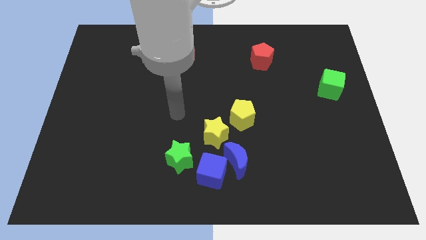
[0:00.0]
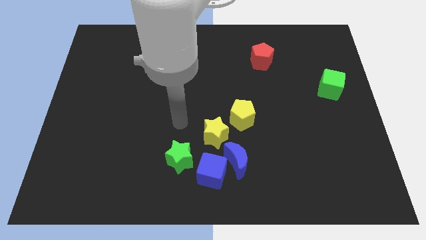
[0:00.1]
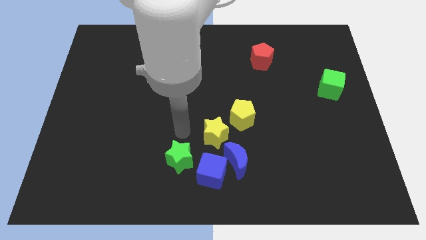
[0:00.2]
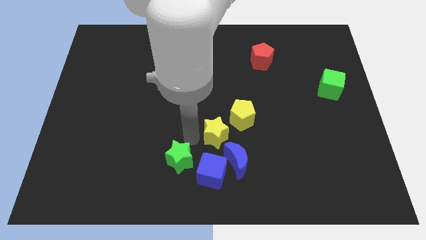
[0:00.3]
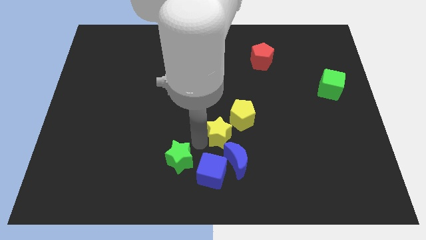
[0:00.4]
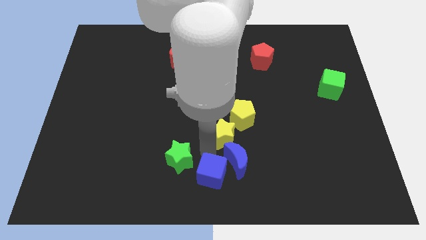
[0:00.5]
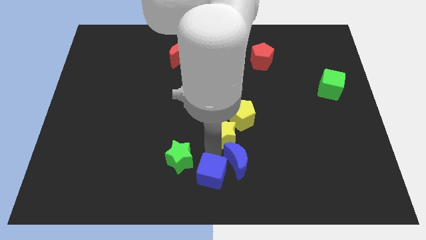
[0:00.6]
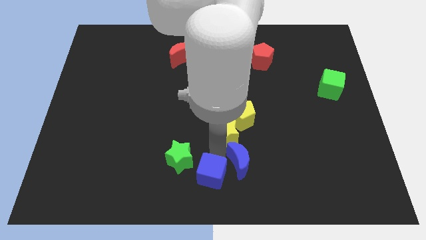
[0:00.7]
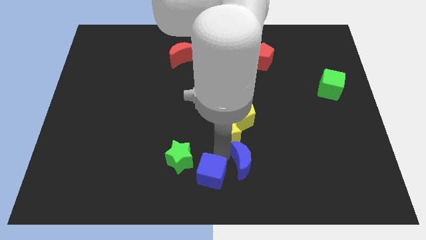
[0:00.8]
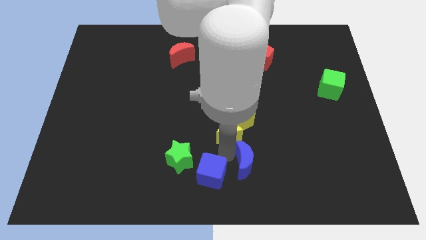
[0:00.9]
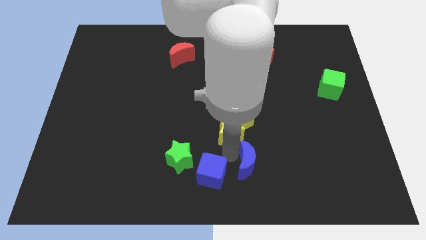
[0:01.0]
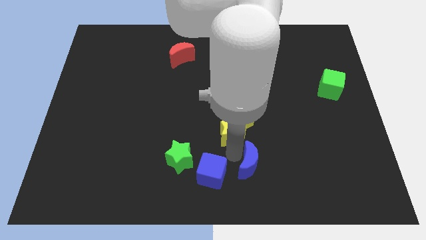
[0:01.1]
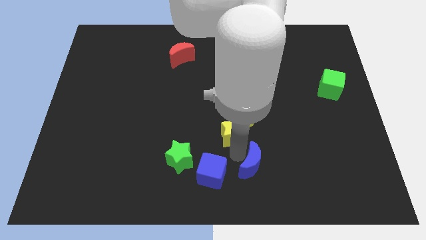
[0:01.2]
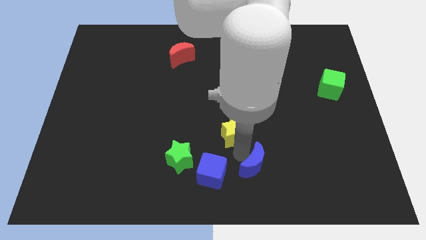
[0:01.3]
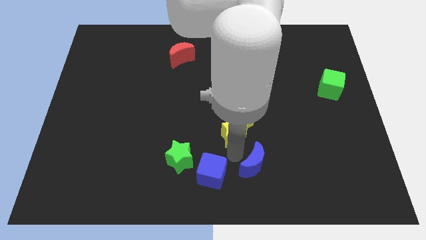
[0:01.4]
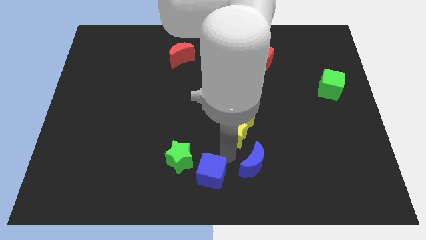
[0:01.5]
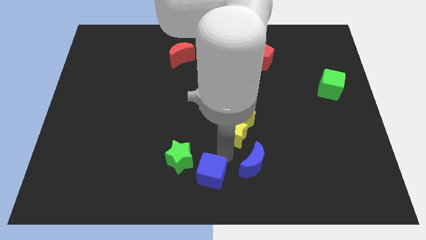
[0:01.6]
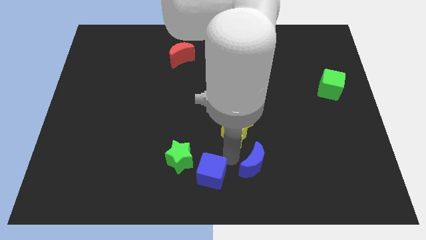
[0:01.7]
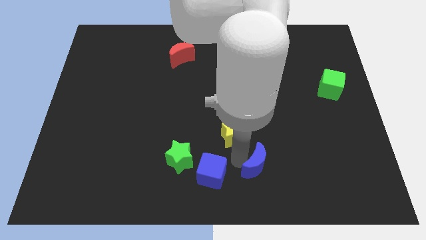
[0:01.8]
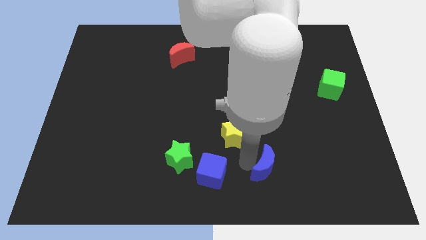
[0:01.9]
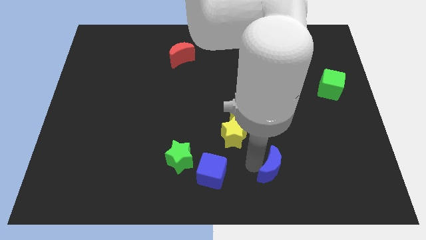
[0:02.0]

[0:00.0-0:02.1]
move the blue moon away from the blue cube and yellow star

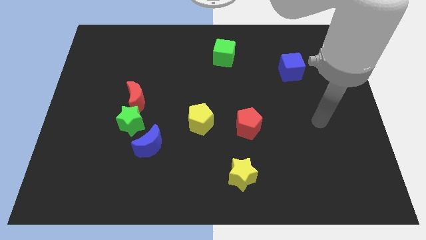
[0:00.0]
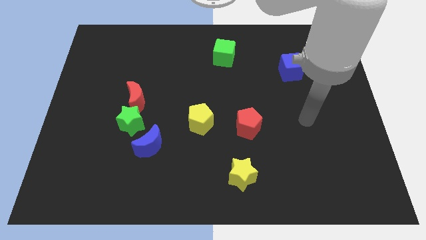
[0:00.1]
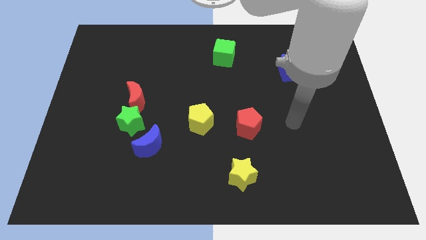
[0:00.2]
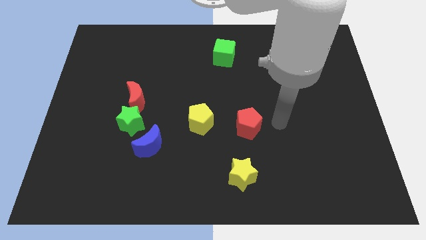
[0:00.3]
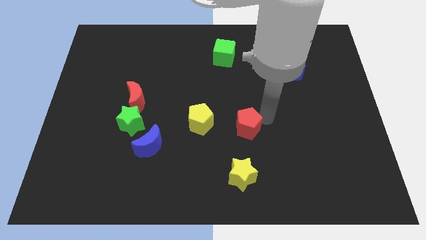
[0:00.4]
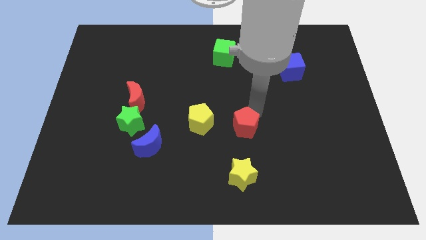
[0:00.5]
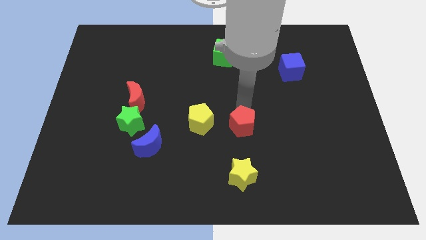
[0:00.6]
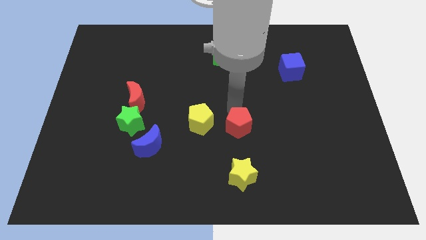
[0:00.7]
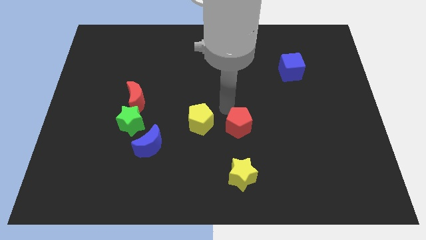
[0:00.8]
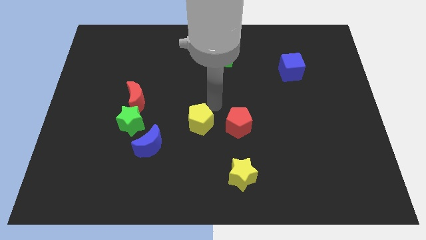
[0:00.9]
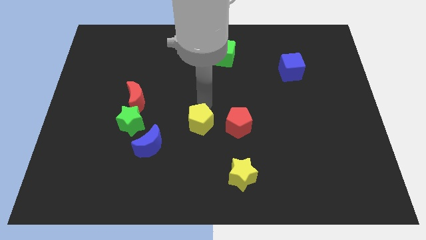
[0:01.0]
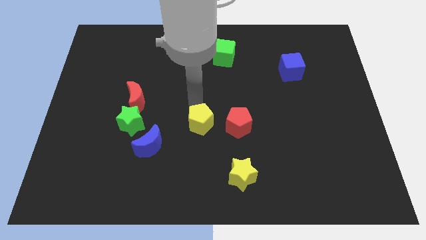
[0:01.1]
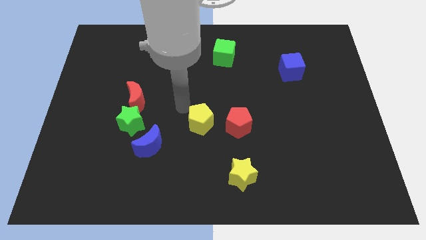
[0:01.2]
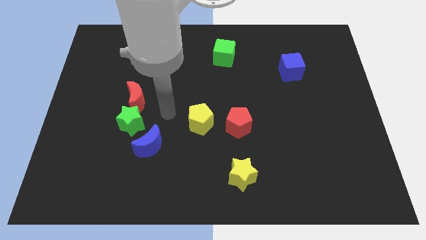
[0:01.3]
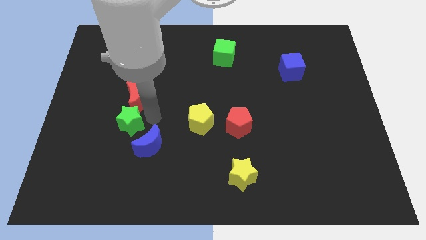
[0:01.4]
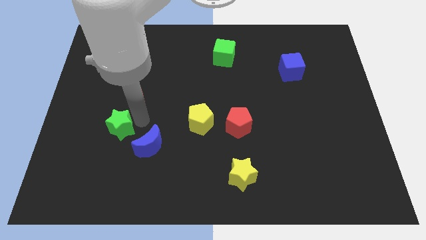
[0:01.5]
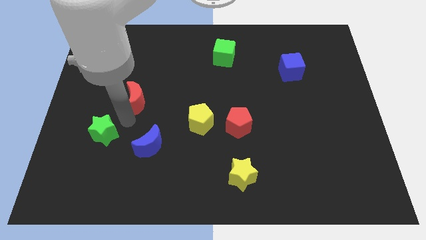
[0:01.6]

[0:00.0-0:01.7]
separate the red moon from the green star

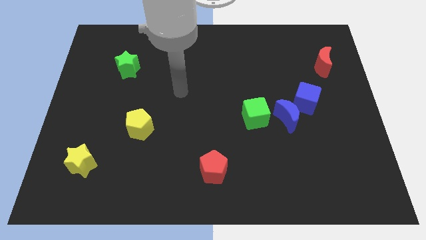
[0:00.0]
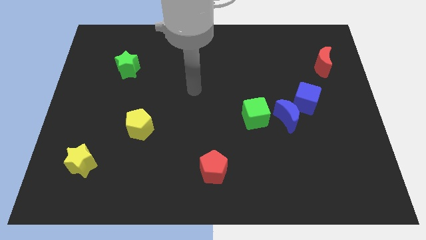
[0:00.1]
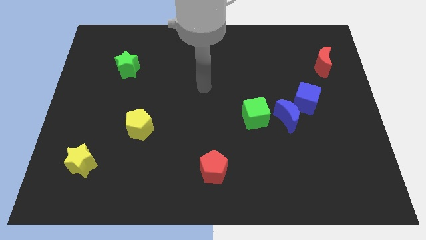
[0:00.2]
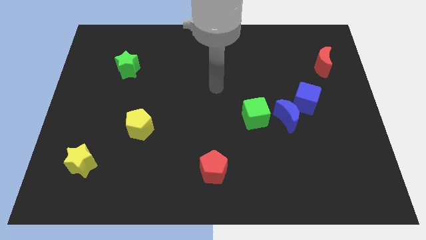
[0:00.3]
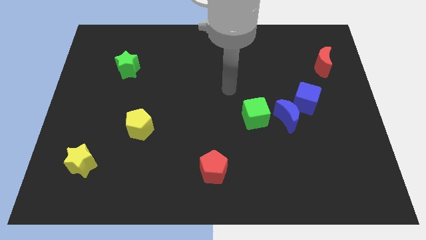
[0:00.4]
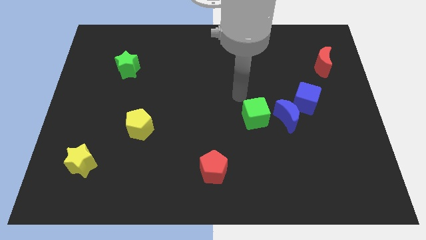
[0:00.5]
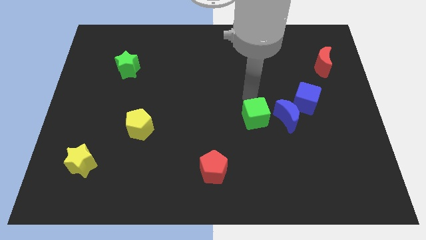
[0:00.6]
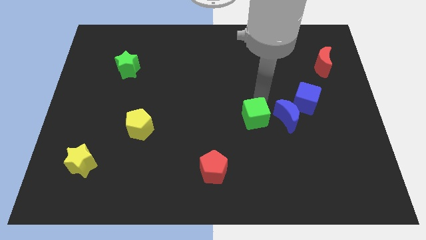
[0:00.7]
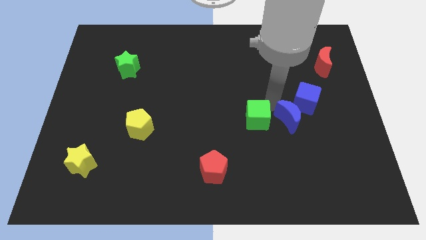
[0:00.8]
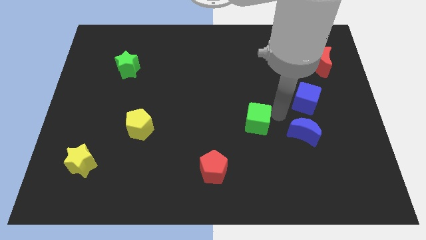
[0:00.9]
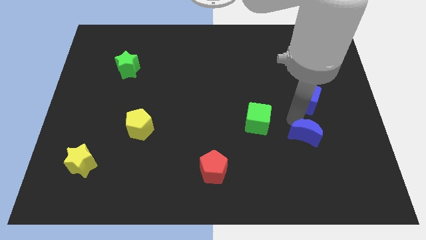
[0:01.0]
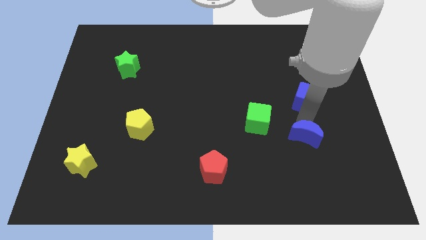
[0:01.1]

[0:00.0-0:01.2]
separate the blue cube from the blue moon

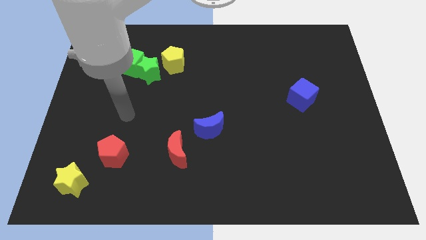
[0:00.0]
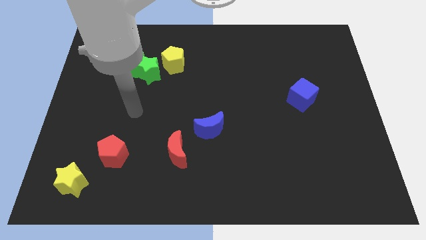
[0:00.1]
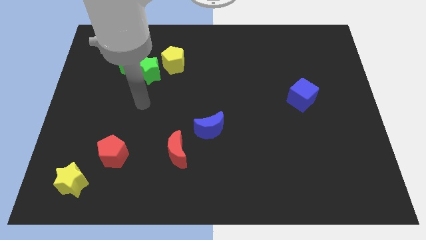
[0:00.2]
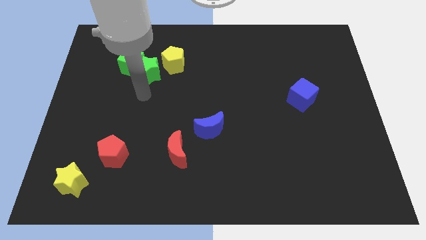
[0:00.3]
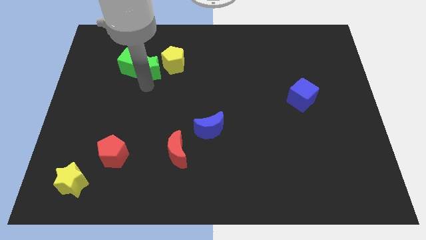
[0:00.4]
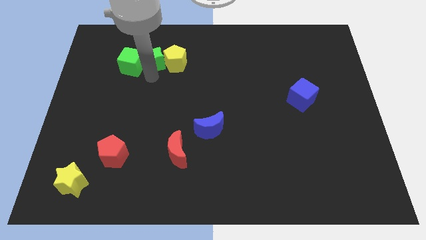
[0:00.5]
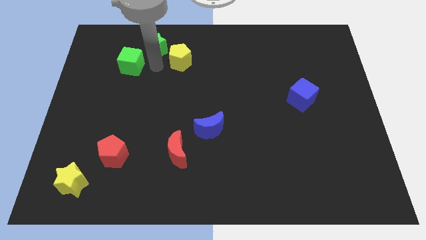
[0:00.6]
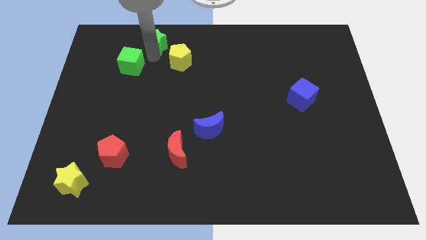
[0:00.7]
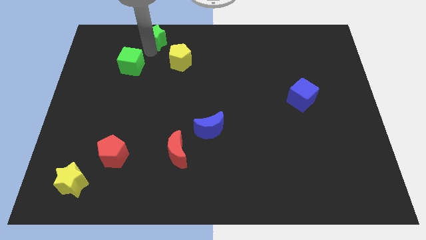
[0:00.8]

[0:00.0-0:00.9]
move the green cube away from the green star

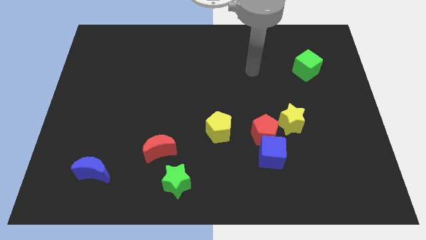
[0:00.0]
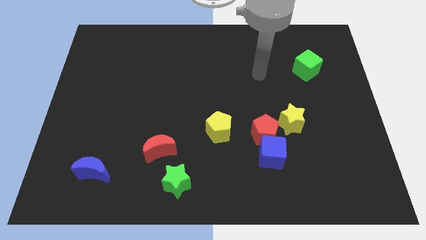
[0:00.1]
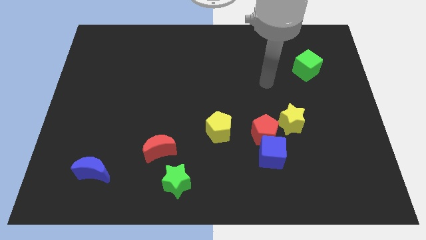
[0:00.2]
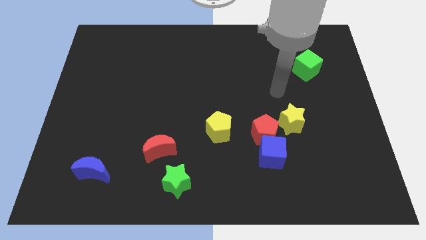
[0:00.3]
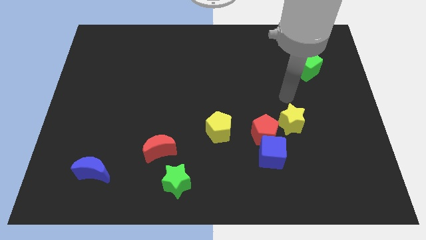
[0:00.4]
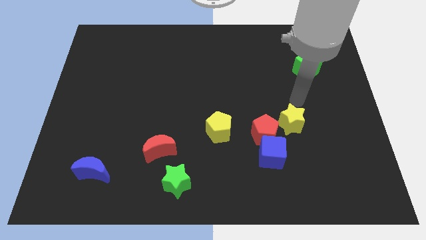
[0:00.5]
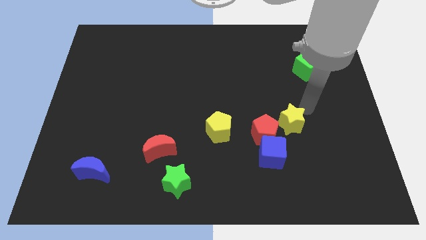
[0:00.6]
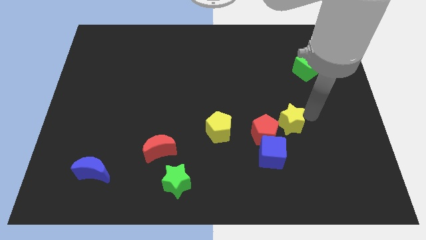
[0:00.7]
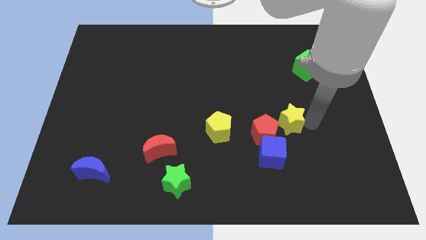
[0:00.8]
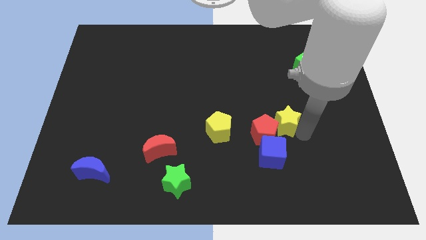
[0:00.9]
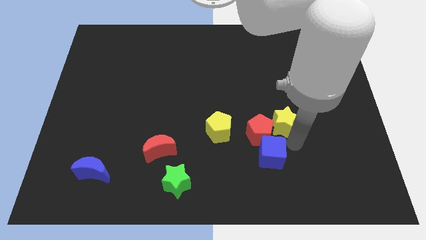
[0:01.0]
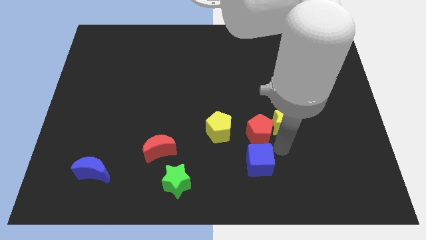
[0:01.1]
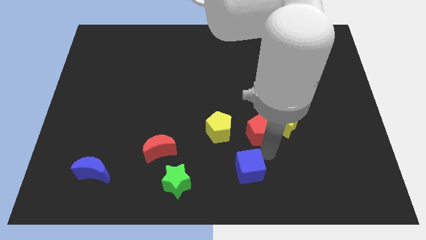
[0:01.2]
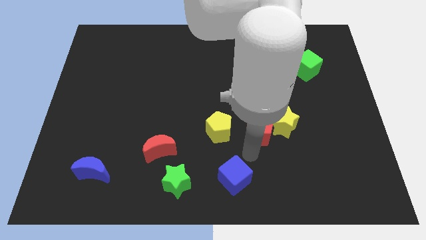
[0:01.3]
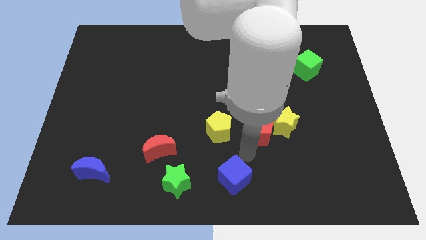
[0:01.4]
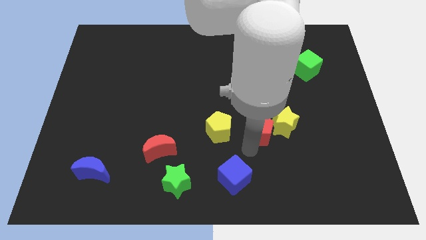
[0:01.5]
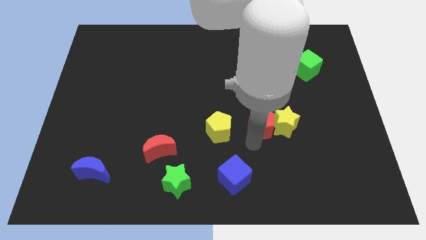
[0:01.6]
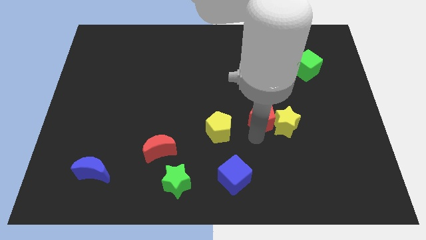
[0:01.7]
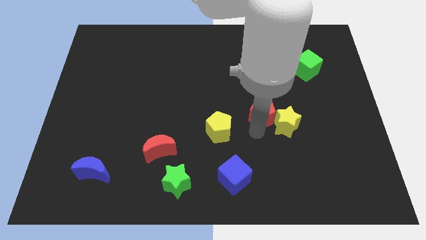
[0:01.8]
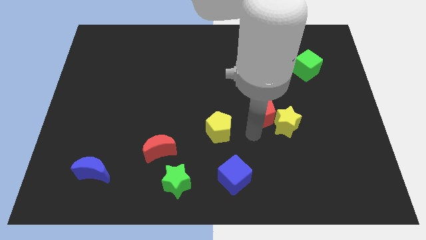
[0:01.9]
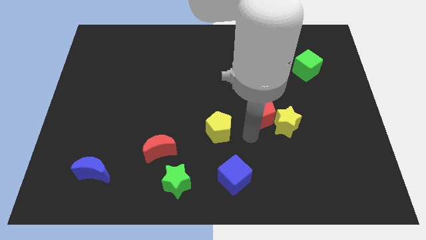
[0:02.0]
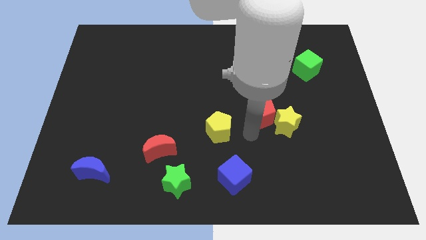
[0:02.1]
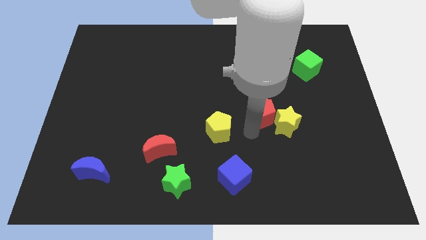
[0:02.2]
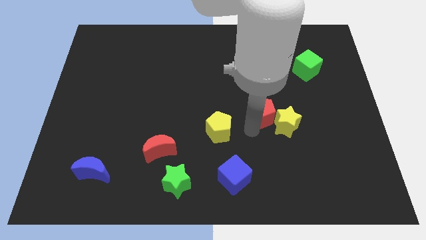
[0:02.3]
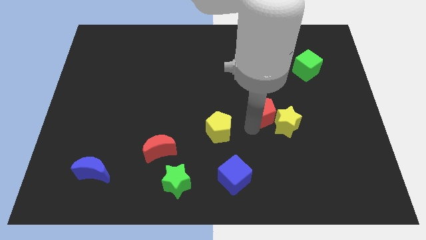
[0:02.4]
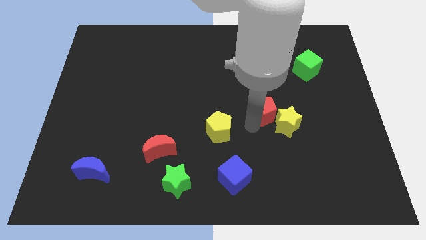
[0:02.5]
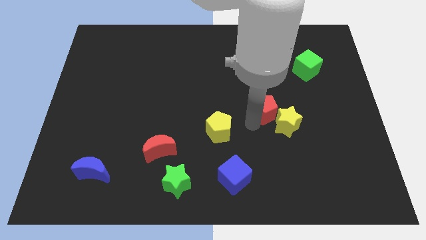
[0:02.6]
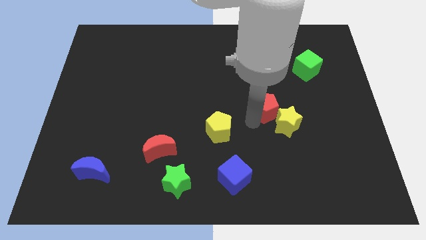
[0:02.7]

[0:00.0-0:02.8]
move the red pentagon away from the blue cube, yellow star, and yellow pentagon

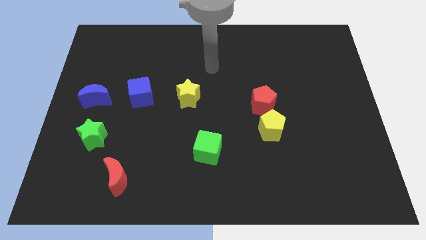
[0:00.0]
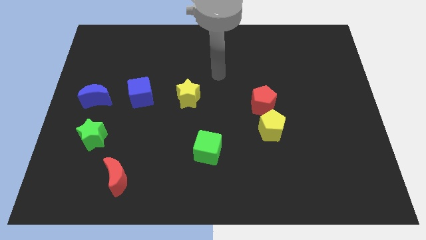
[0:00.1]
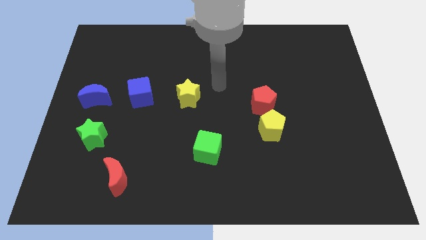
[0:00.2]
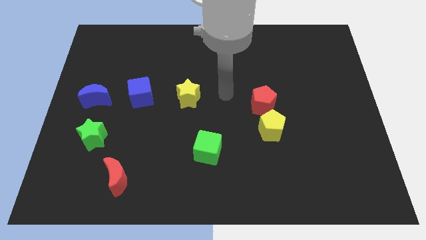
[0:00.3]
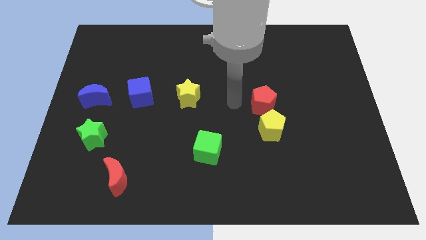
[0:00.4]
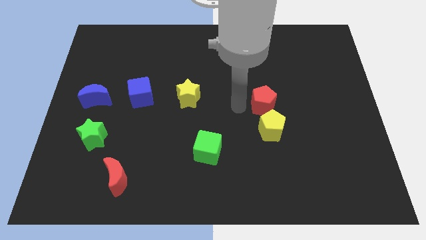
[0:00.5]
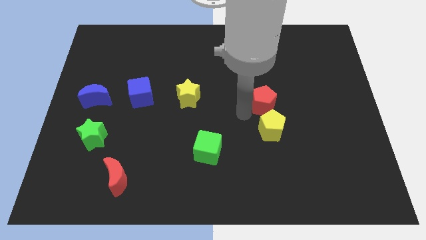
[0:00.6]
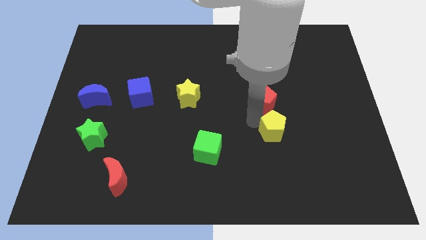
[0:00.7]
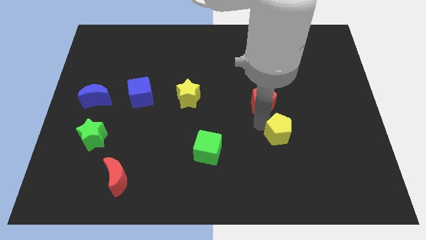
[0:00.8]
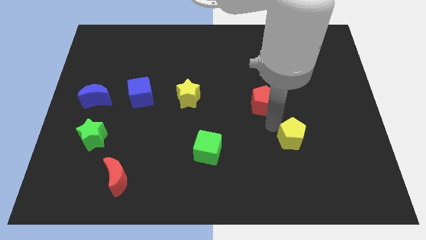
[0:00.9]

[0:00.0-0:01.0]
pull the red pentagon apart from the yellow pentagon
